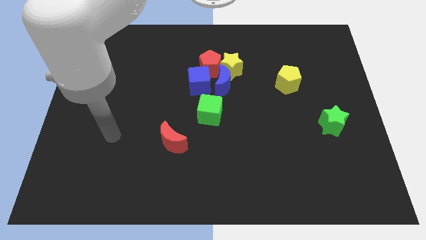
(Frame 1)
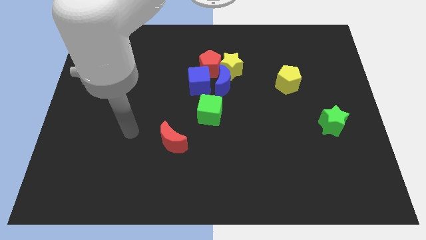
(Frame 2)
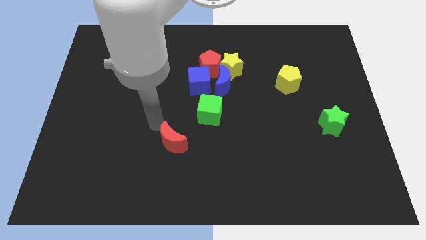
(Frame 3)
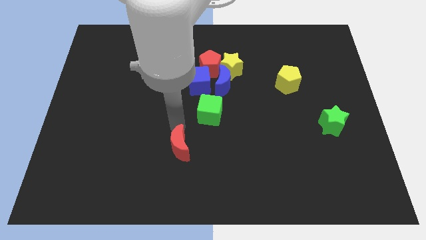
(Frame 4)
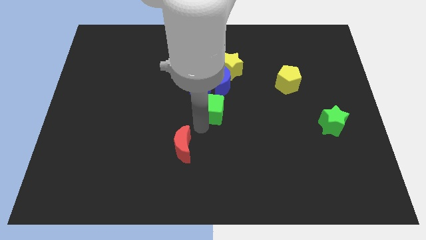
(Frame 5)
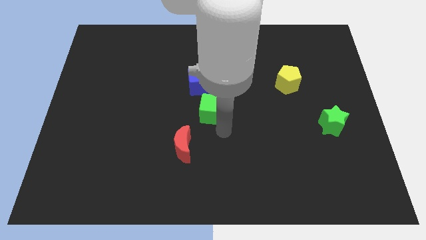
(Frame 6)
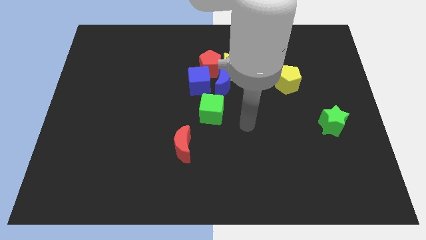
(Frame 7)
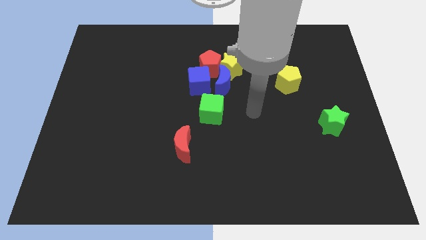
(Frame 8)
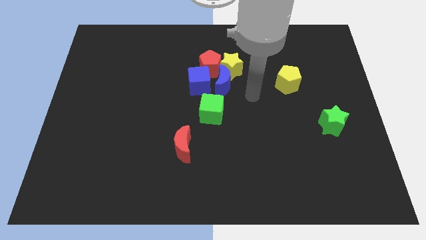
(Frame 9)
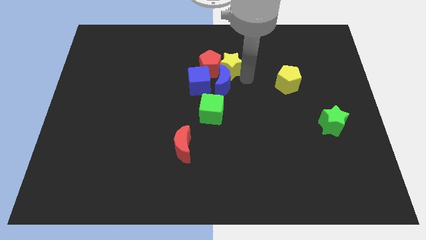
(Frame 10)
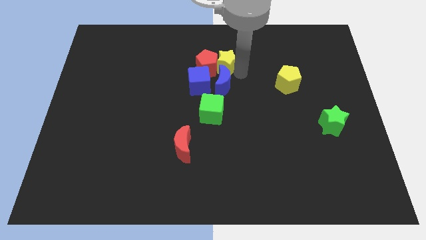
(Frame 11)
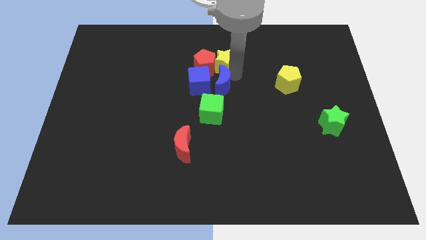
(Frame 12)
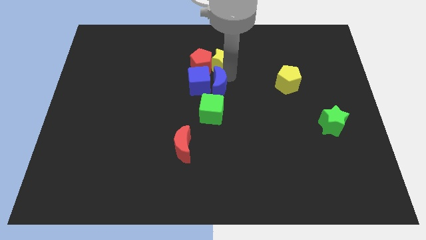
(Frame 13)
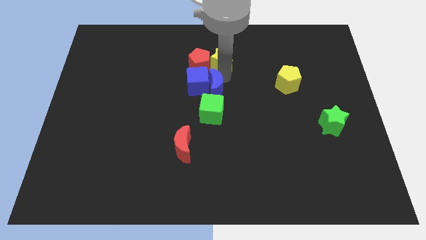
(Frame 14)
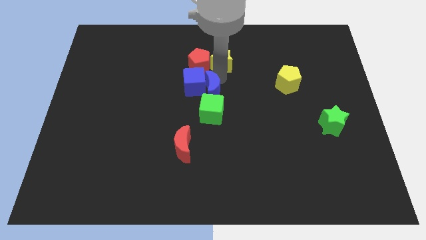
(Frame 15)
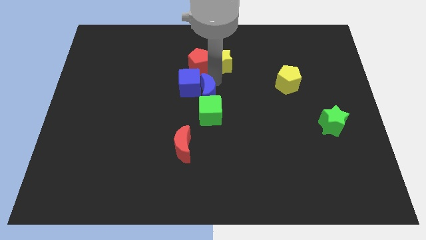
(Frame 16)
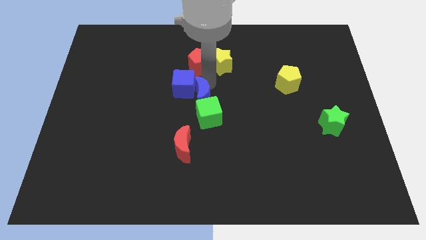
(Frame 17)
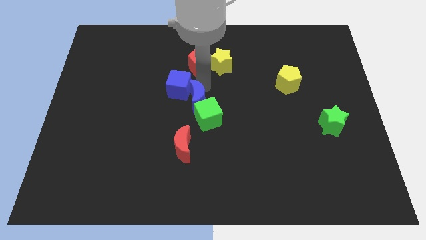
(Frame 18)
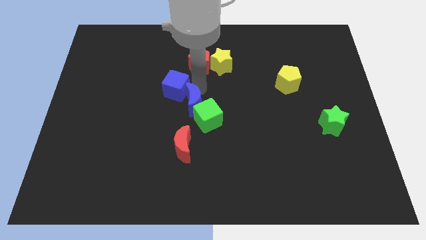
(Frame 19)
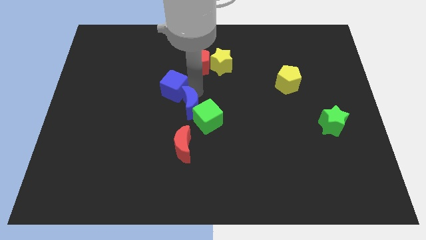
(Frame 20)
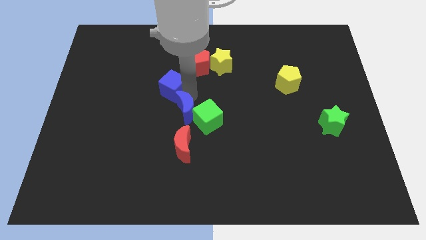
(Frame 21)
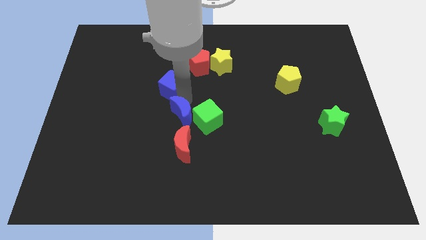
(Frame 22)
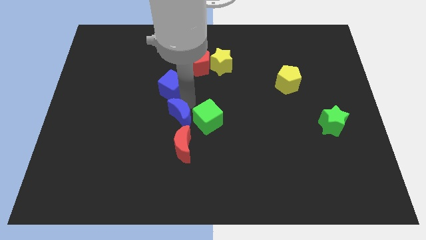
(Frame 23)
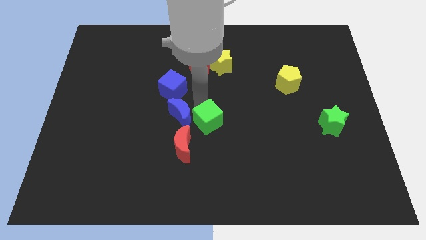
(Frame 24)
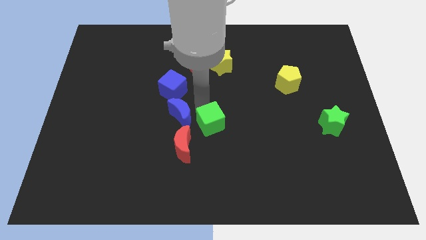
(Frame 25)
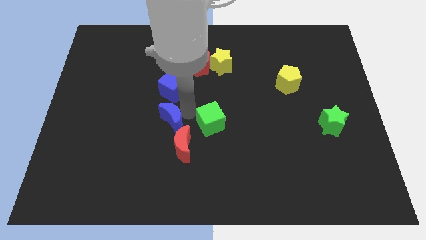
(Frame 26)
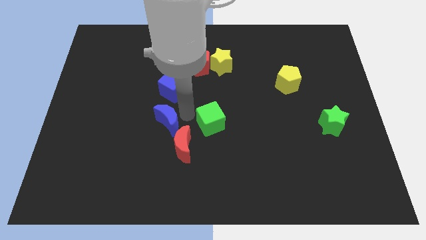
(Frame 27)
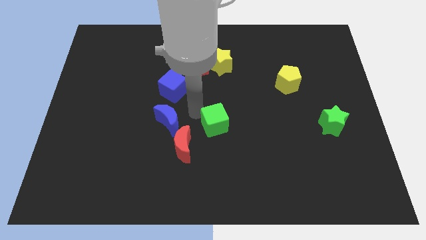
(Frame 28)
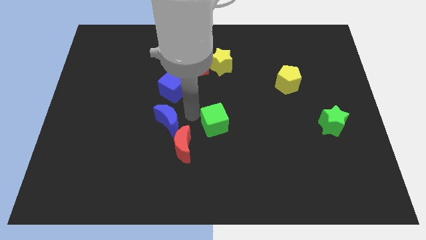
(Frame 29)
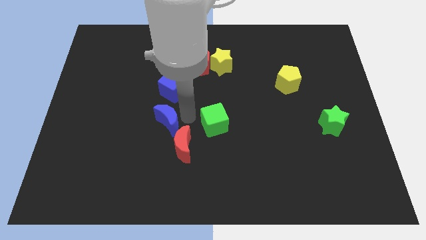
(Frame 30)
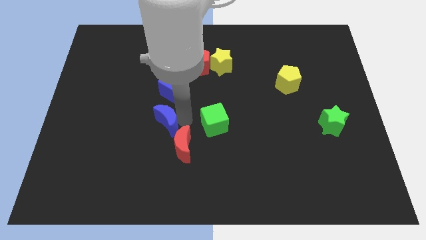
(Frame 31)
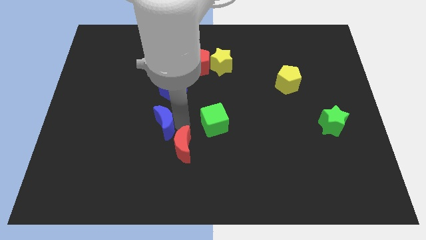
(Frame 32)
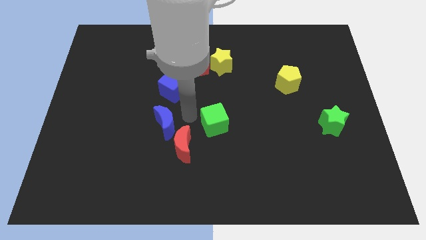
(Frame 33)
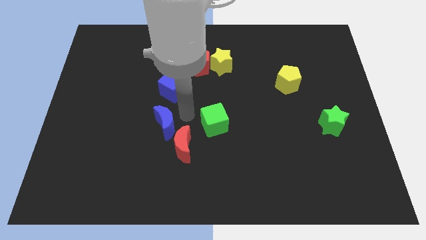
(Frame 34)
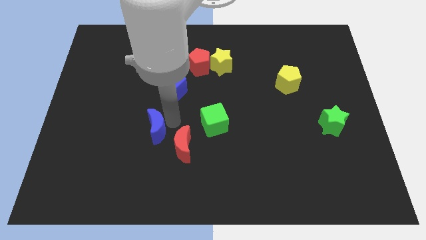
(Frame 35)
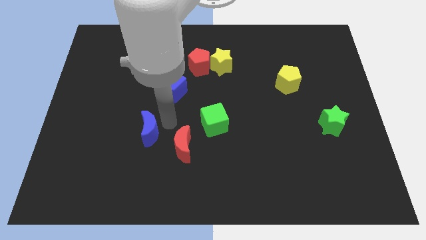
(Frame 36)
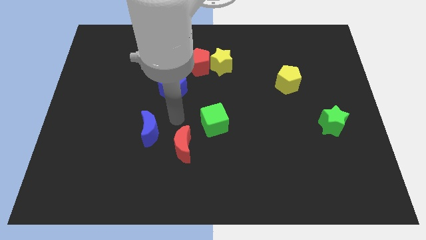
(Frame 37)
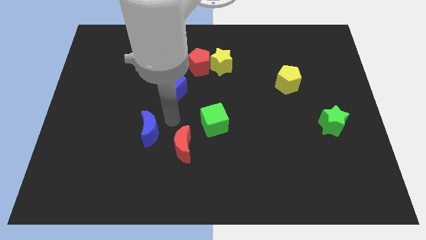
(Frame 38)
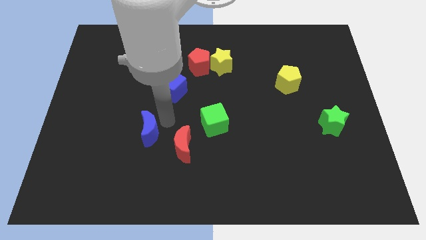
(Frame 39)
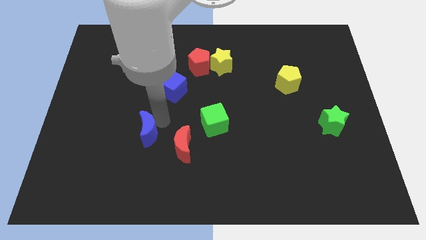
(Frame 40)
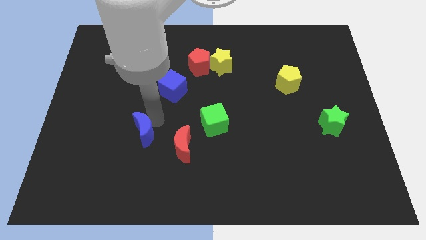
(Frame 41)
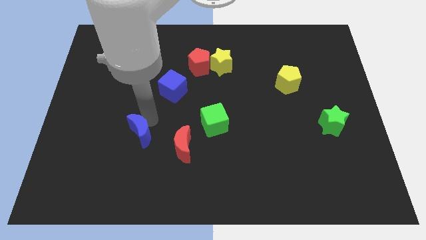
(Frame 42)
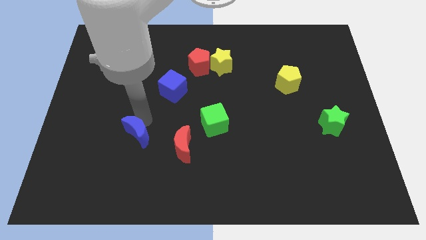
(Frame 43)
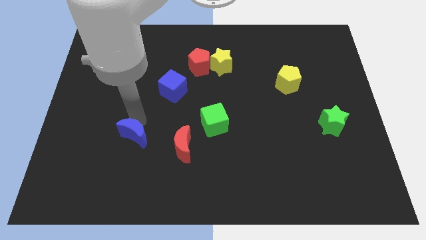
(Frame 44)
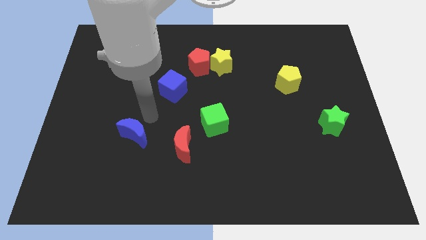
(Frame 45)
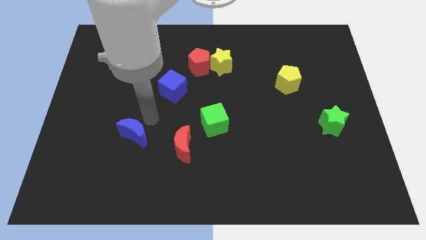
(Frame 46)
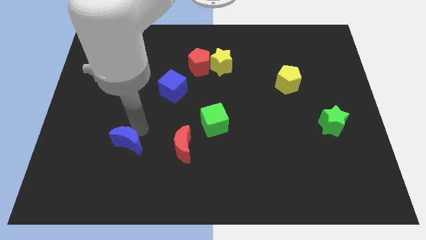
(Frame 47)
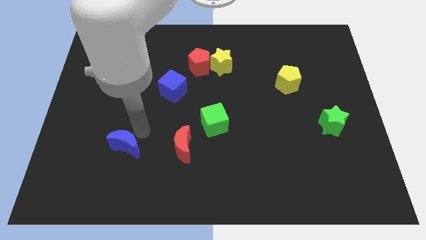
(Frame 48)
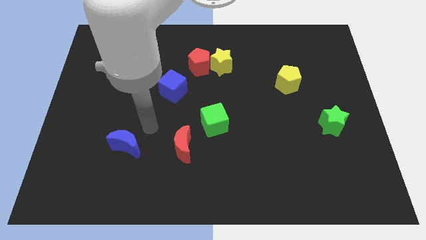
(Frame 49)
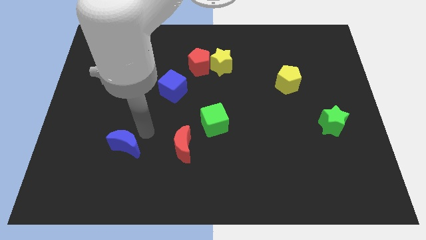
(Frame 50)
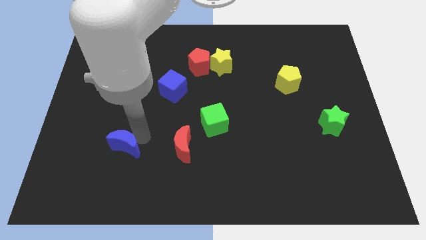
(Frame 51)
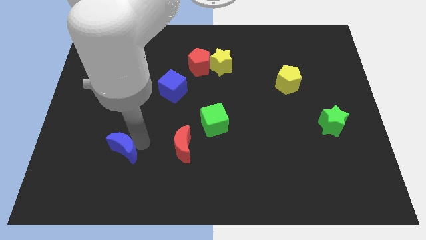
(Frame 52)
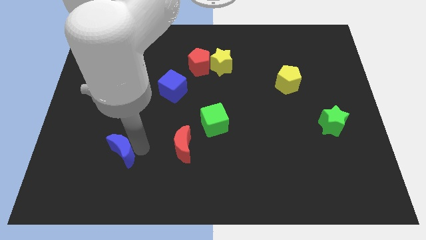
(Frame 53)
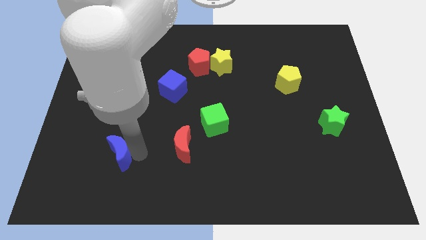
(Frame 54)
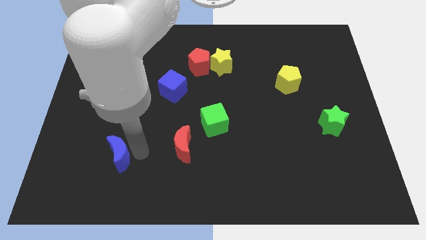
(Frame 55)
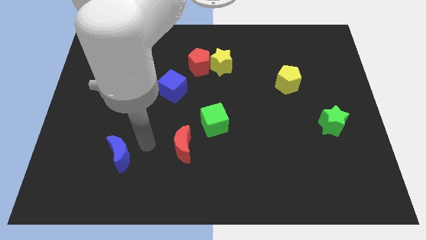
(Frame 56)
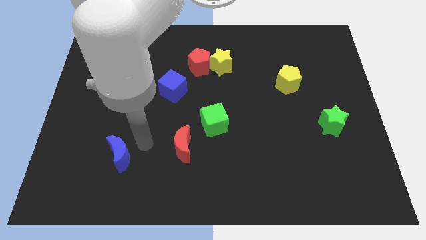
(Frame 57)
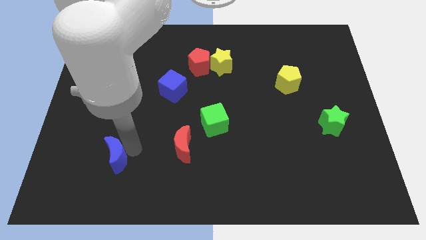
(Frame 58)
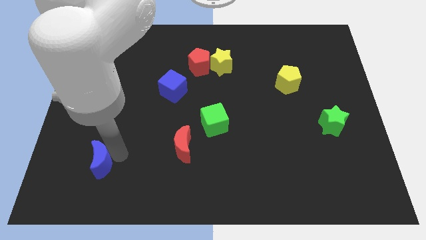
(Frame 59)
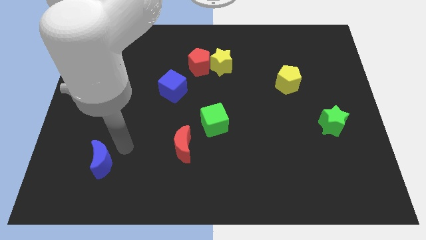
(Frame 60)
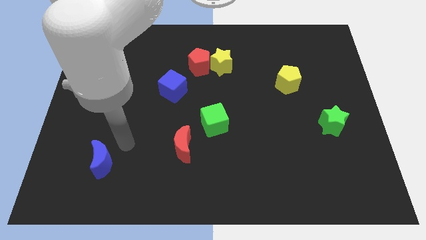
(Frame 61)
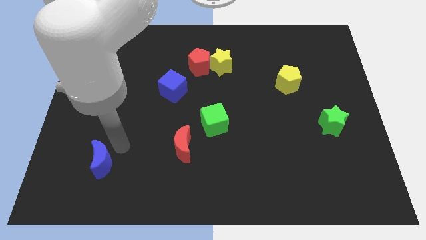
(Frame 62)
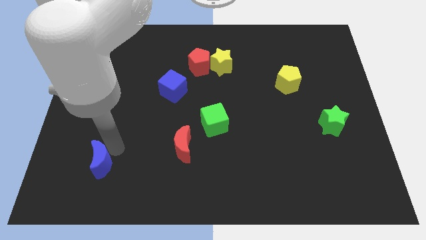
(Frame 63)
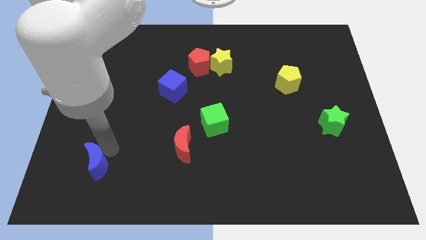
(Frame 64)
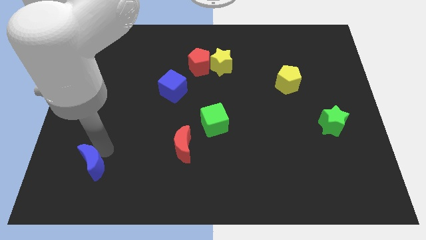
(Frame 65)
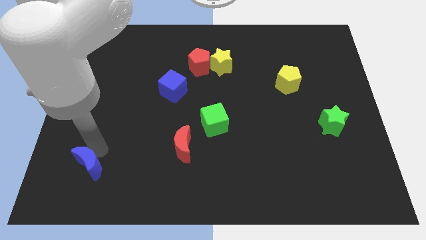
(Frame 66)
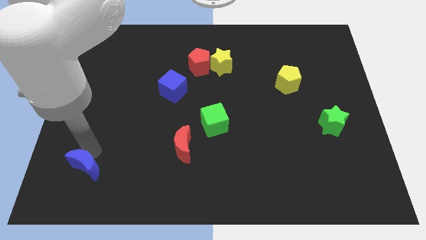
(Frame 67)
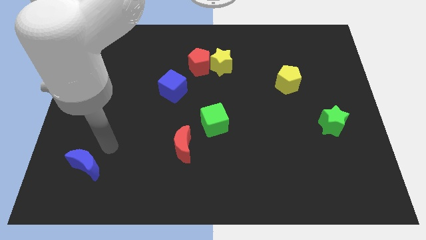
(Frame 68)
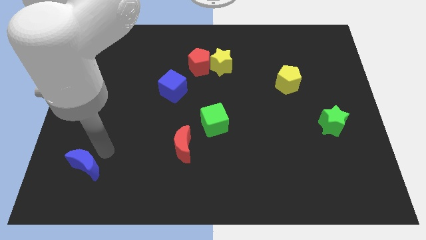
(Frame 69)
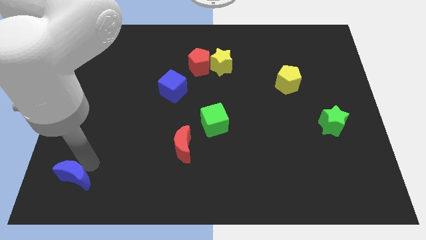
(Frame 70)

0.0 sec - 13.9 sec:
push the blue moon to the bottom left of the board
